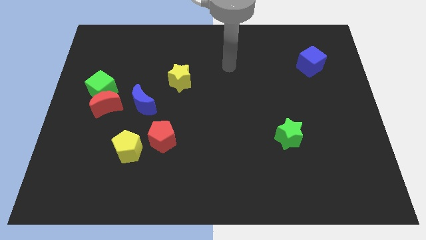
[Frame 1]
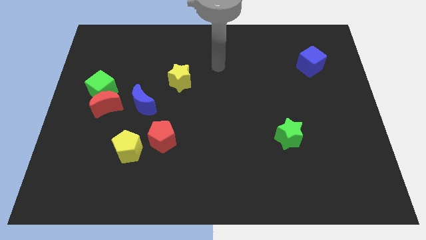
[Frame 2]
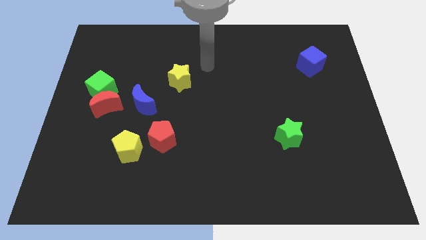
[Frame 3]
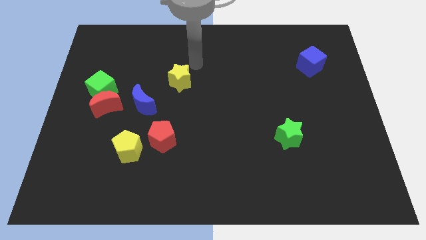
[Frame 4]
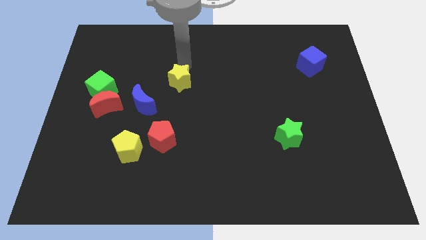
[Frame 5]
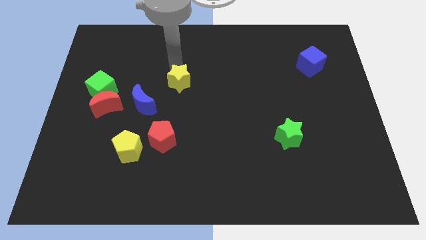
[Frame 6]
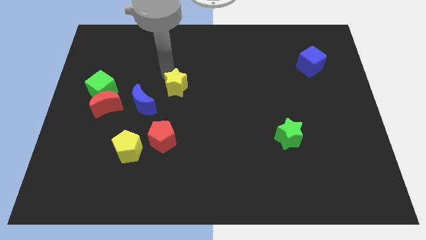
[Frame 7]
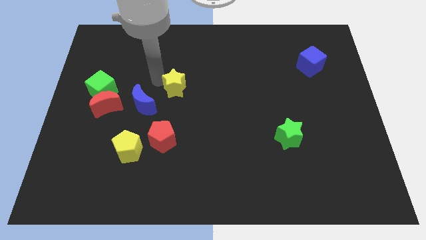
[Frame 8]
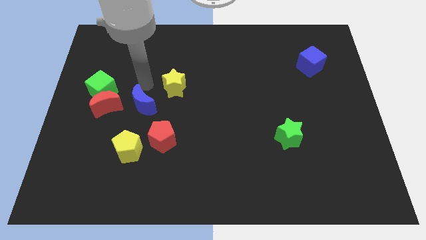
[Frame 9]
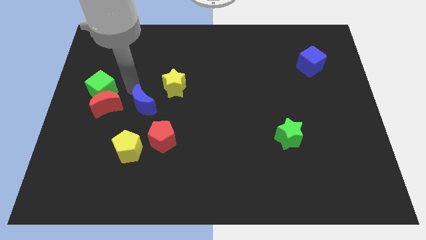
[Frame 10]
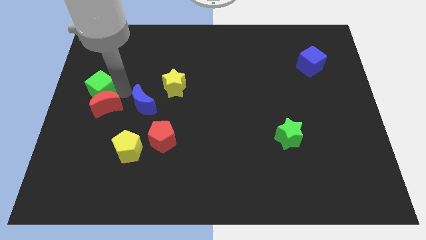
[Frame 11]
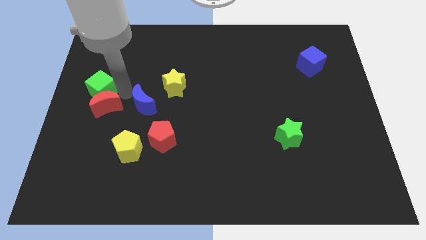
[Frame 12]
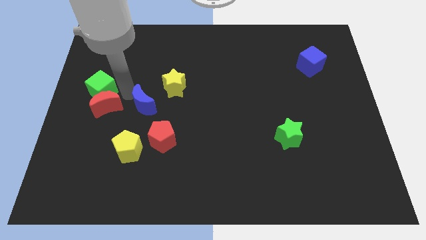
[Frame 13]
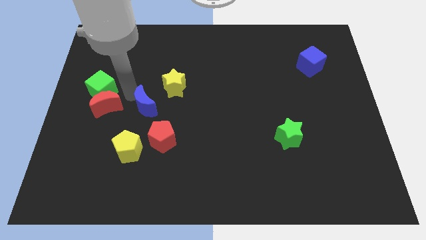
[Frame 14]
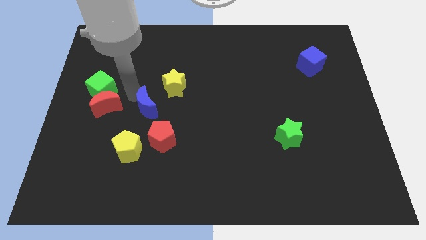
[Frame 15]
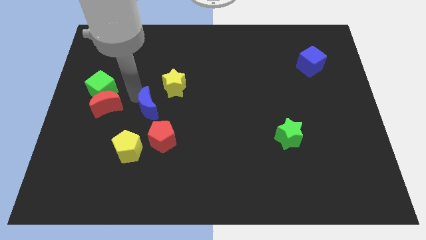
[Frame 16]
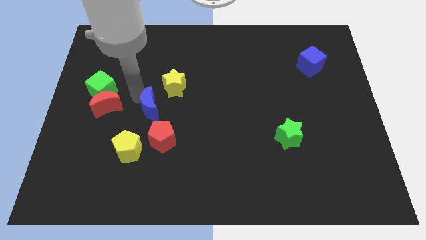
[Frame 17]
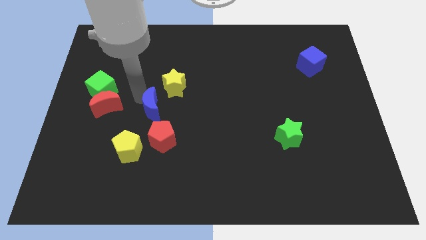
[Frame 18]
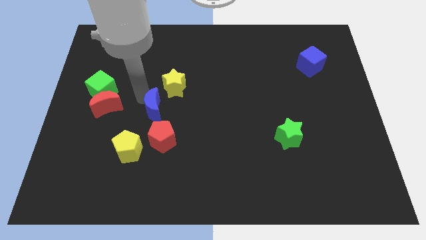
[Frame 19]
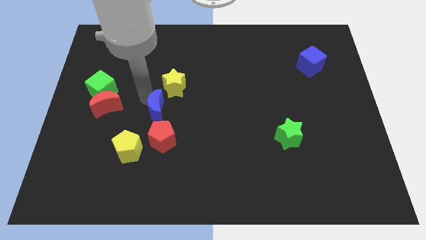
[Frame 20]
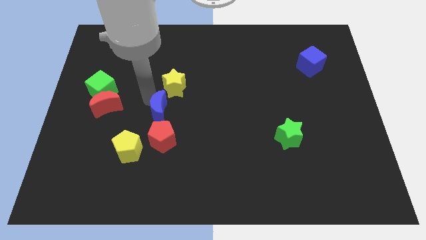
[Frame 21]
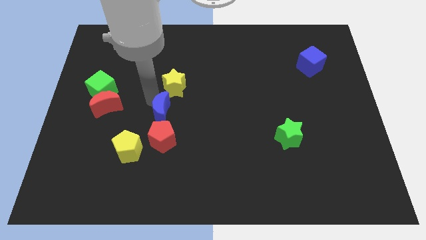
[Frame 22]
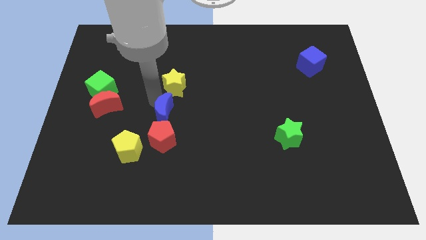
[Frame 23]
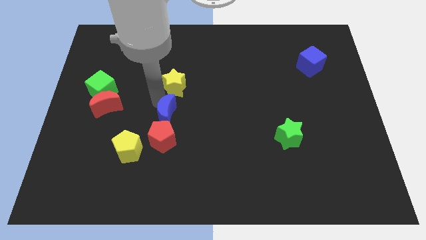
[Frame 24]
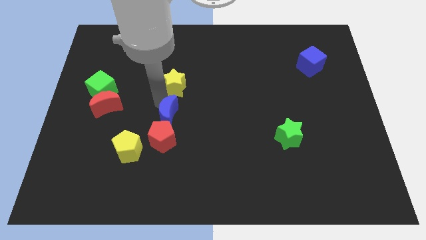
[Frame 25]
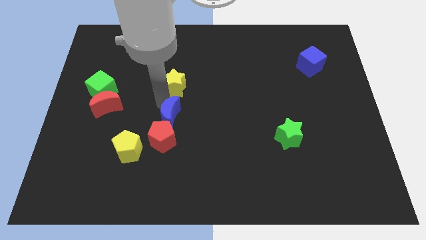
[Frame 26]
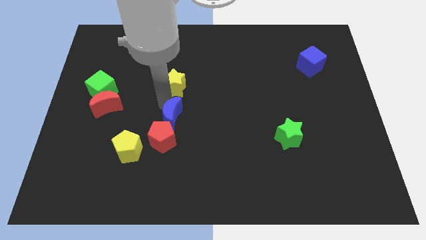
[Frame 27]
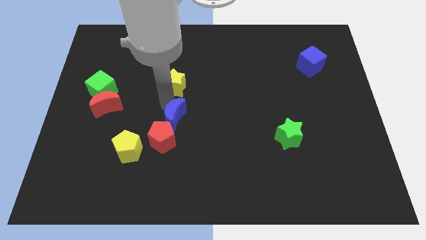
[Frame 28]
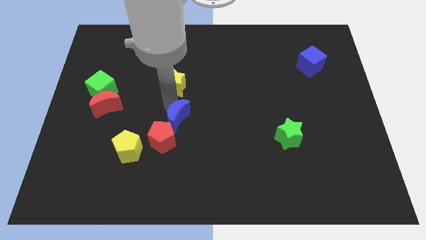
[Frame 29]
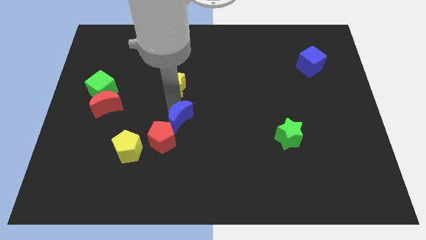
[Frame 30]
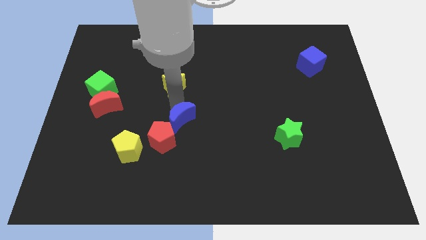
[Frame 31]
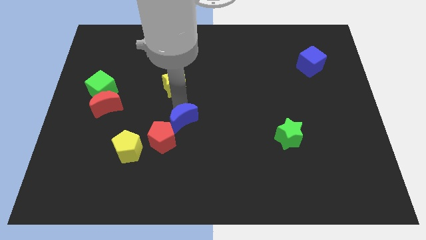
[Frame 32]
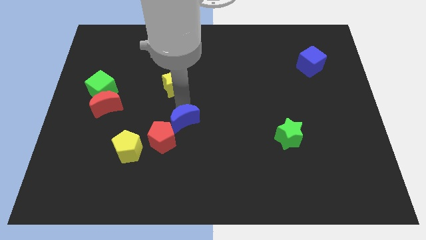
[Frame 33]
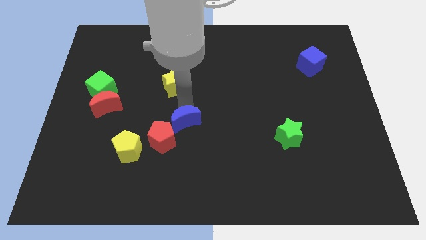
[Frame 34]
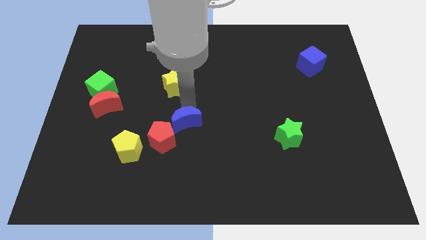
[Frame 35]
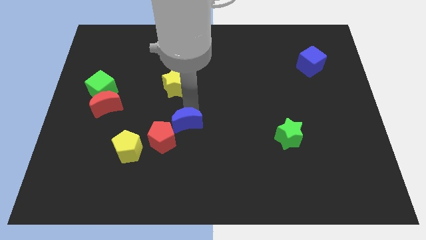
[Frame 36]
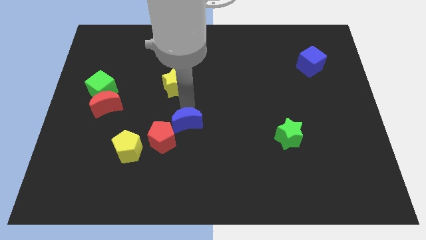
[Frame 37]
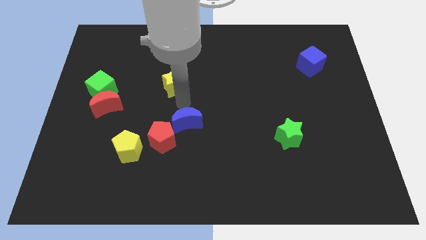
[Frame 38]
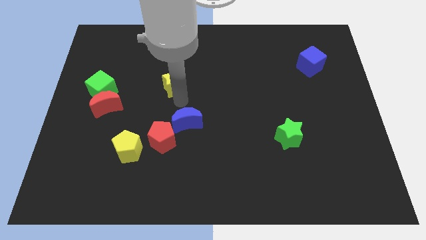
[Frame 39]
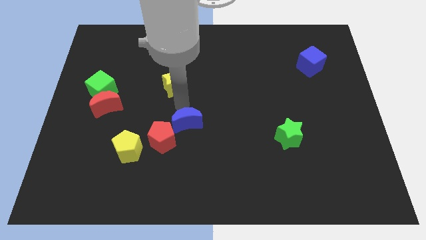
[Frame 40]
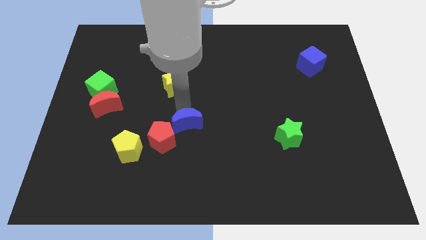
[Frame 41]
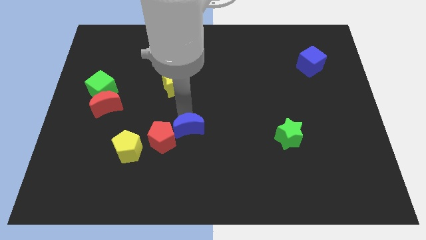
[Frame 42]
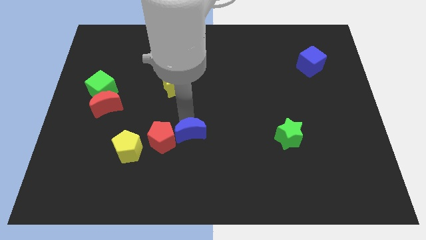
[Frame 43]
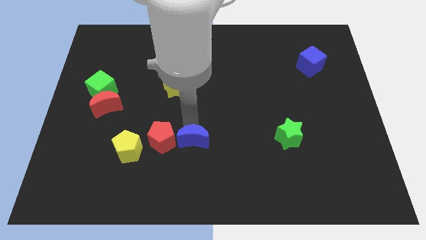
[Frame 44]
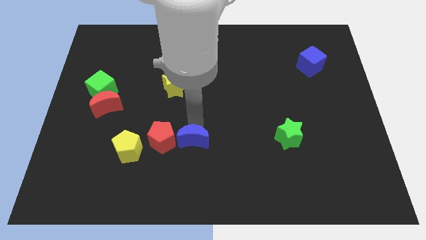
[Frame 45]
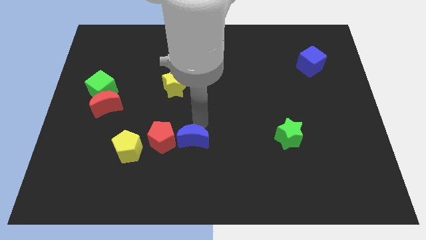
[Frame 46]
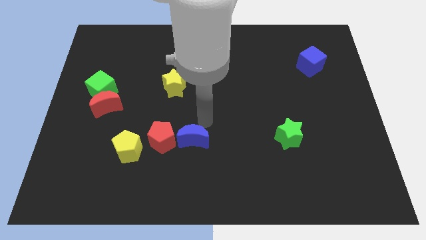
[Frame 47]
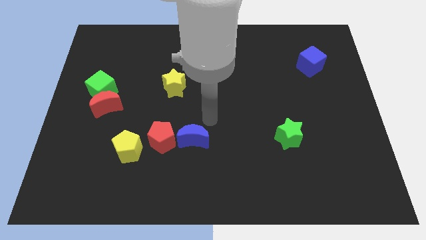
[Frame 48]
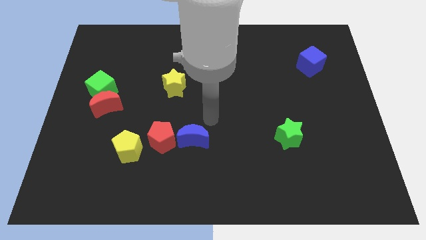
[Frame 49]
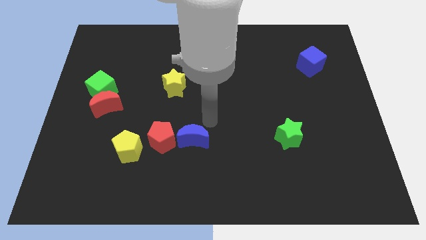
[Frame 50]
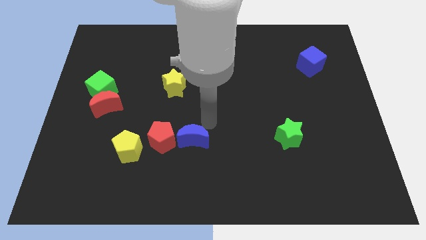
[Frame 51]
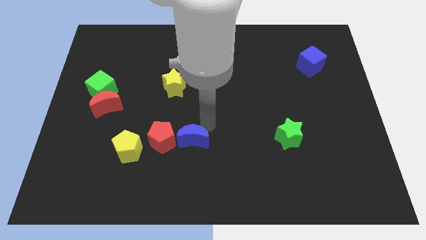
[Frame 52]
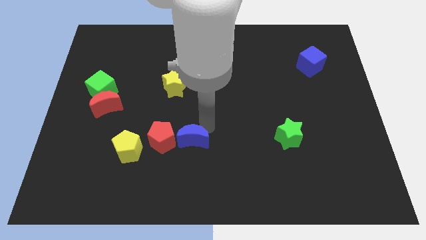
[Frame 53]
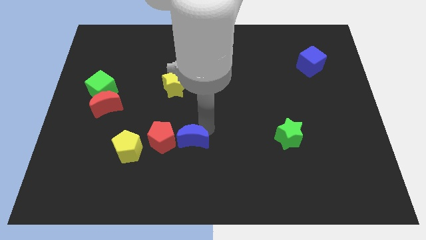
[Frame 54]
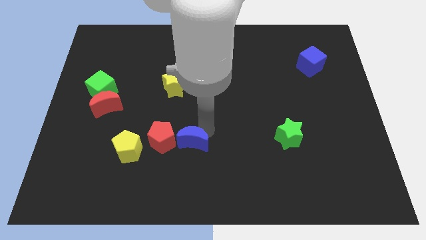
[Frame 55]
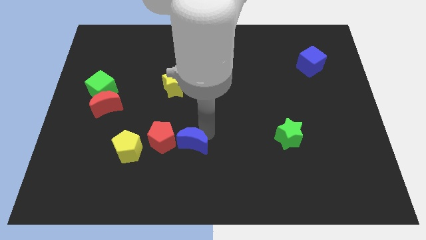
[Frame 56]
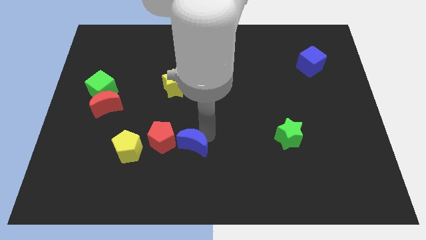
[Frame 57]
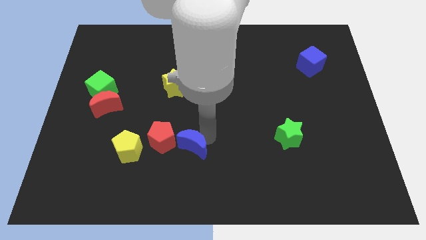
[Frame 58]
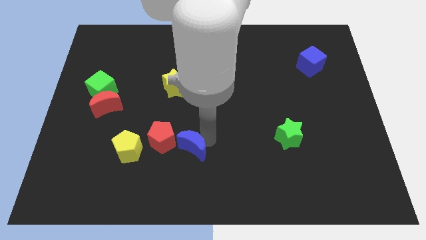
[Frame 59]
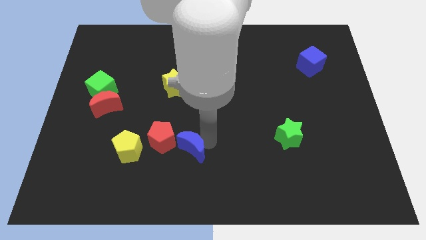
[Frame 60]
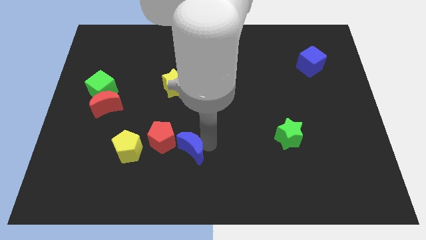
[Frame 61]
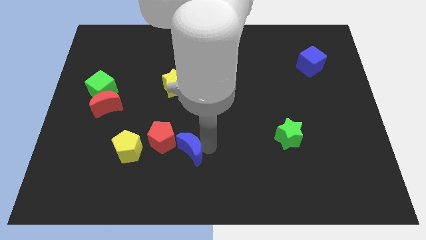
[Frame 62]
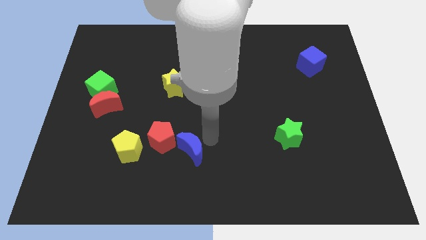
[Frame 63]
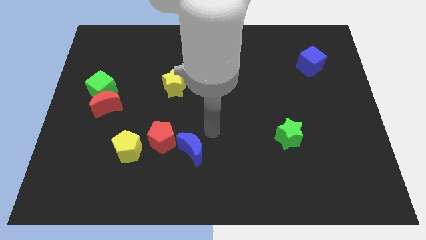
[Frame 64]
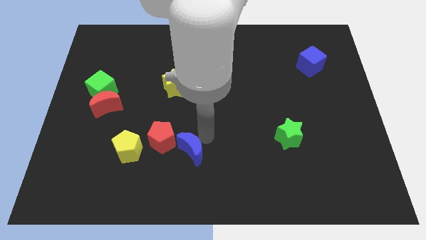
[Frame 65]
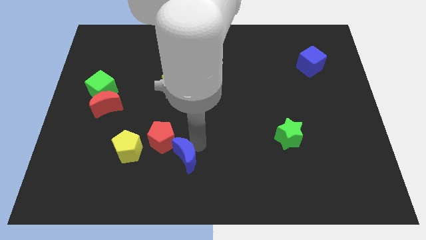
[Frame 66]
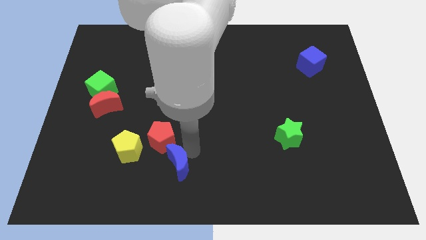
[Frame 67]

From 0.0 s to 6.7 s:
move the blue moon below the red pentagon

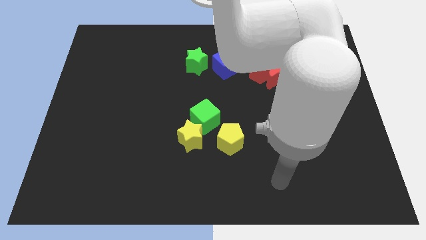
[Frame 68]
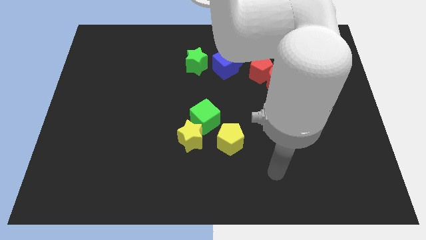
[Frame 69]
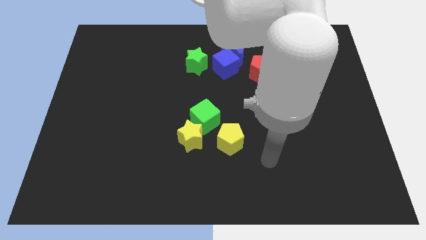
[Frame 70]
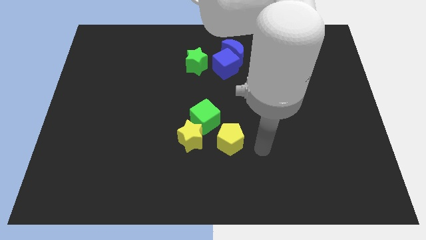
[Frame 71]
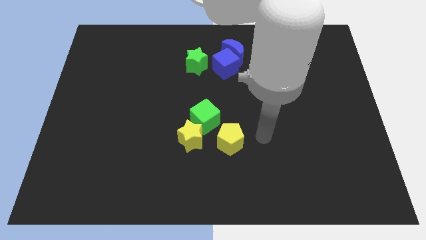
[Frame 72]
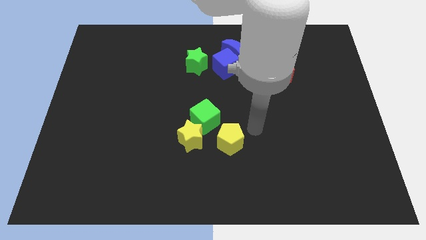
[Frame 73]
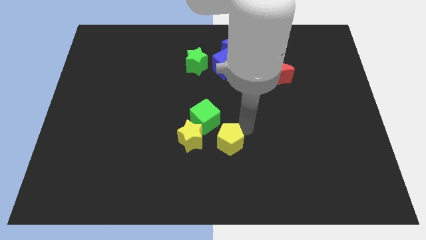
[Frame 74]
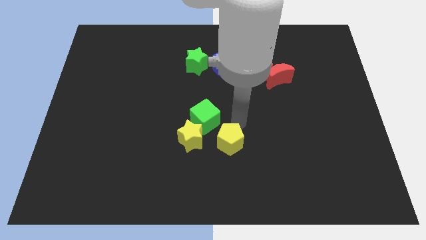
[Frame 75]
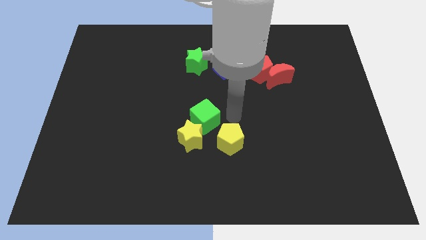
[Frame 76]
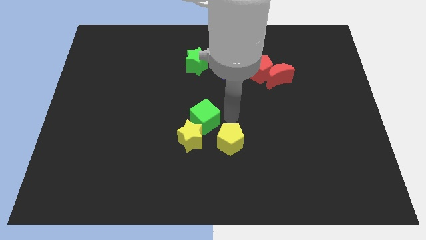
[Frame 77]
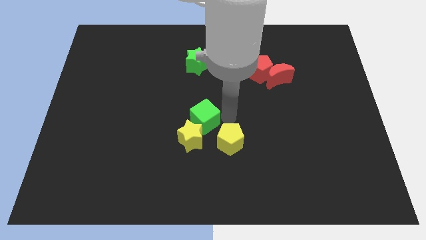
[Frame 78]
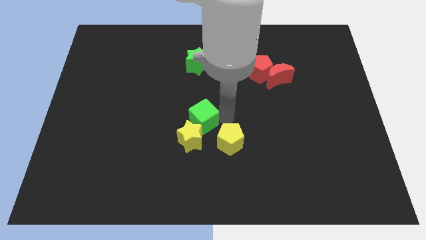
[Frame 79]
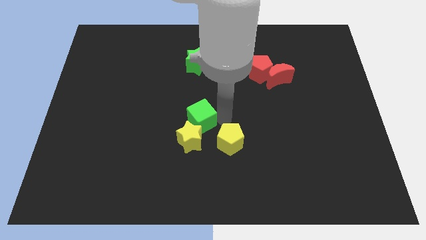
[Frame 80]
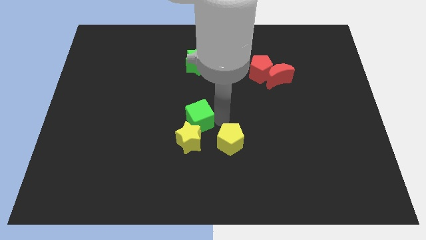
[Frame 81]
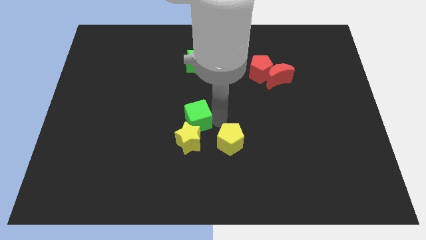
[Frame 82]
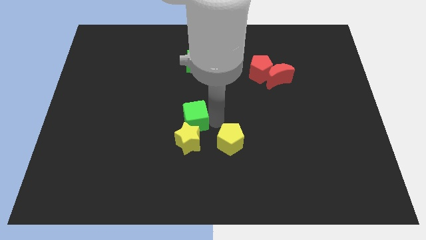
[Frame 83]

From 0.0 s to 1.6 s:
put the green cube to the top left of the yellow star
